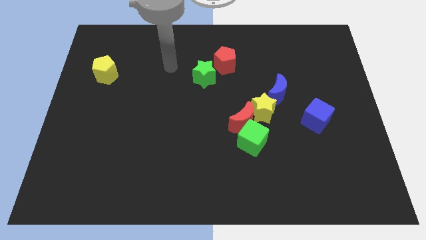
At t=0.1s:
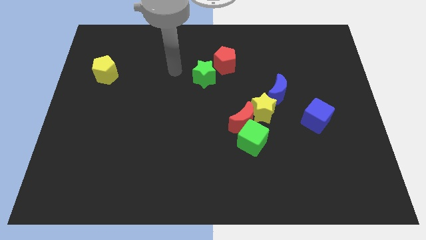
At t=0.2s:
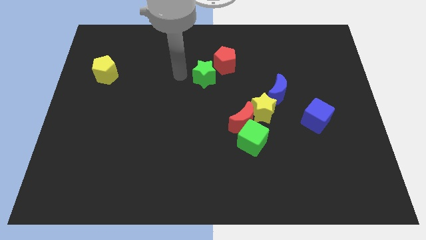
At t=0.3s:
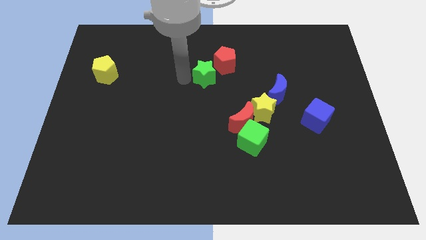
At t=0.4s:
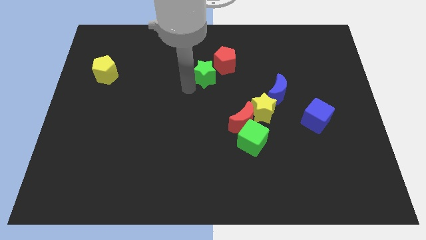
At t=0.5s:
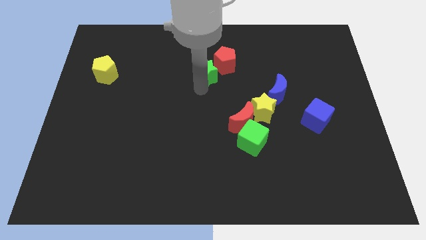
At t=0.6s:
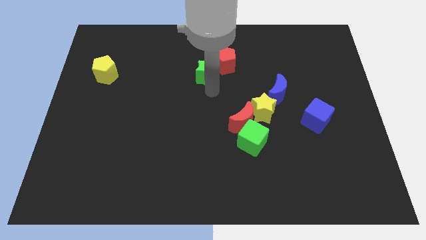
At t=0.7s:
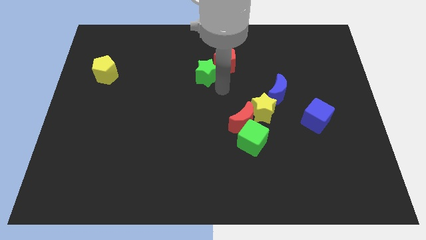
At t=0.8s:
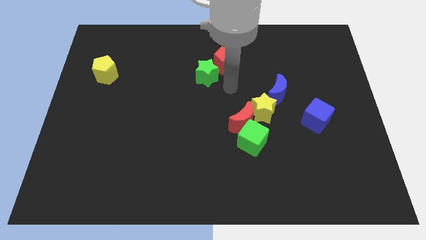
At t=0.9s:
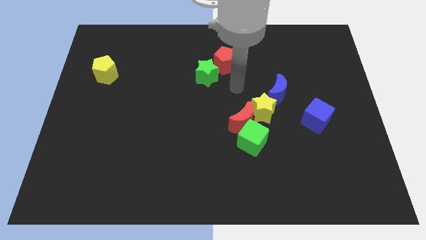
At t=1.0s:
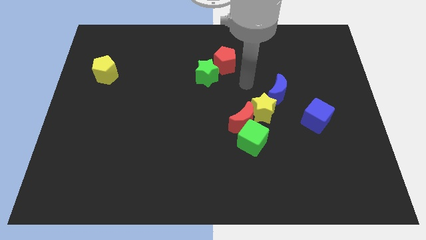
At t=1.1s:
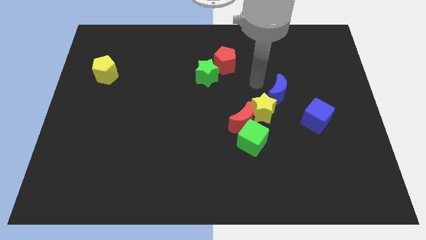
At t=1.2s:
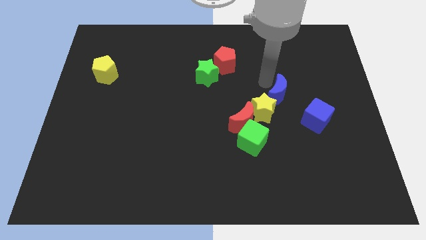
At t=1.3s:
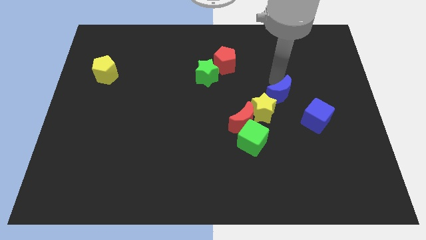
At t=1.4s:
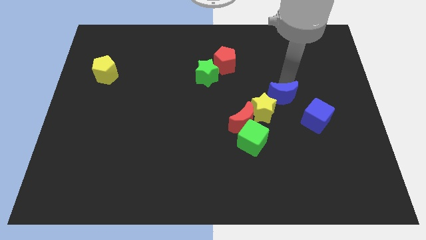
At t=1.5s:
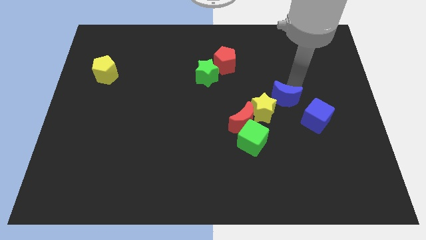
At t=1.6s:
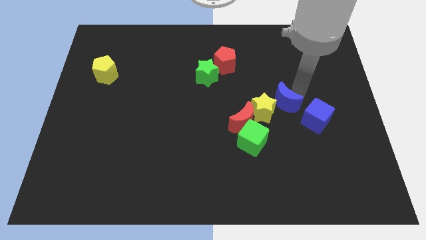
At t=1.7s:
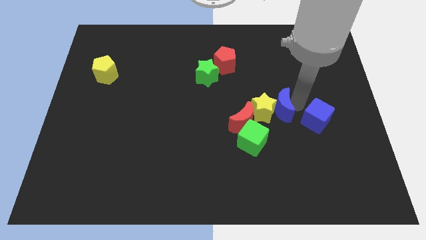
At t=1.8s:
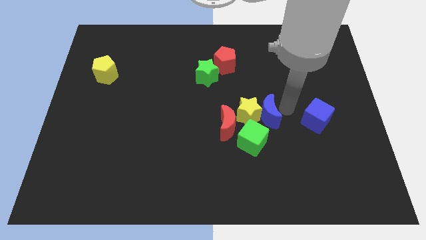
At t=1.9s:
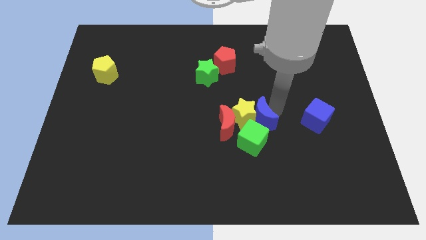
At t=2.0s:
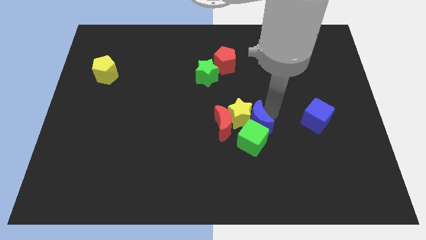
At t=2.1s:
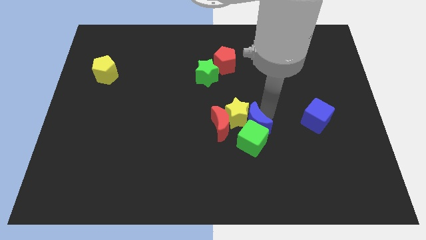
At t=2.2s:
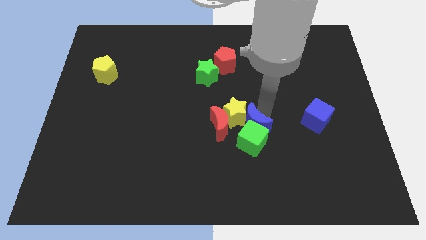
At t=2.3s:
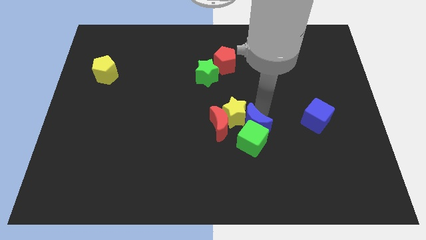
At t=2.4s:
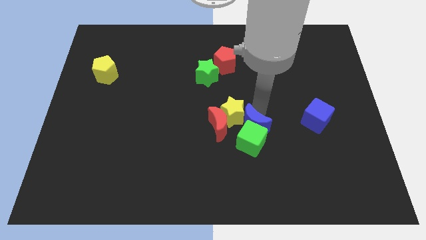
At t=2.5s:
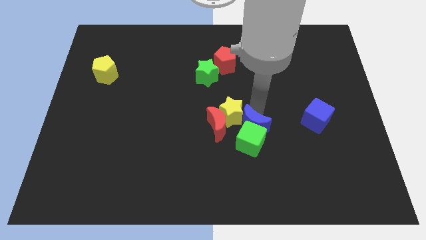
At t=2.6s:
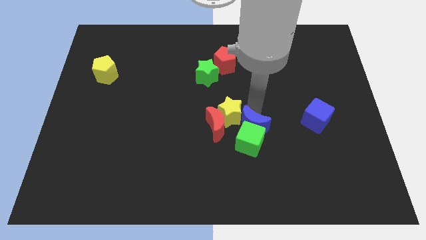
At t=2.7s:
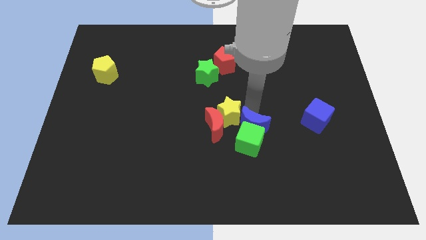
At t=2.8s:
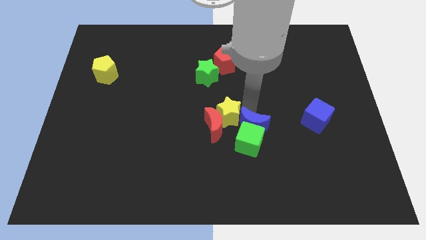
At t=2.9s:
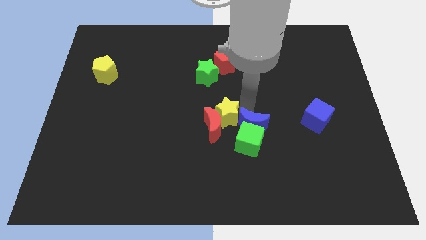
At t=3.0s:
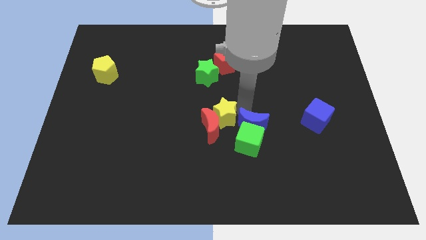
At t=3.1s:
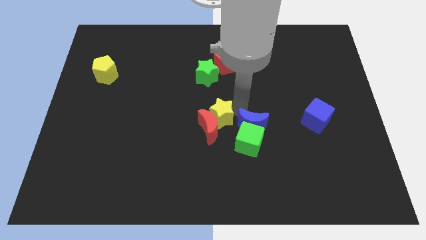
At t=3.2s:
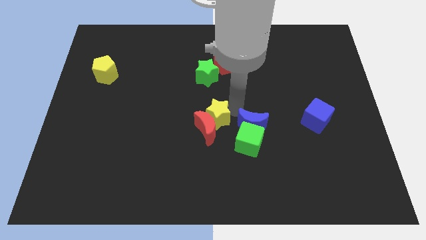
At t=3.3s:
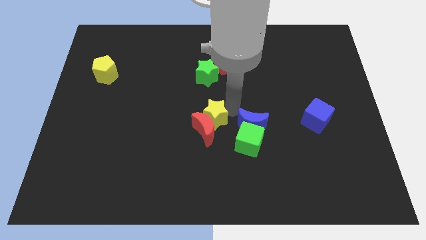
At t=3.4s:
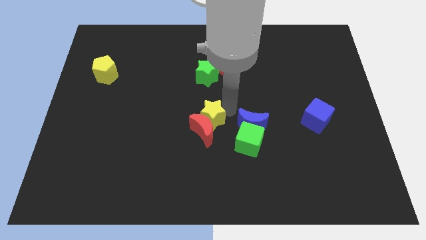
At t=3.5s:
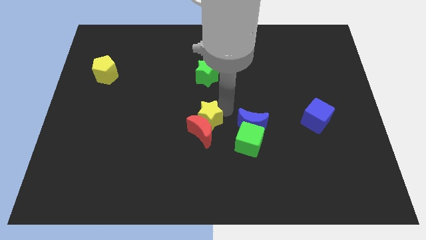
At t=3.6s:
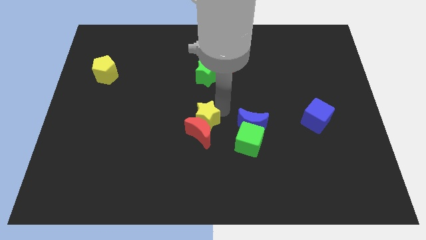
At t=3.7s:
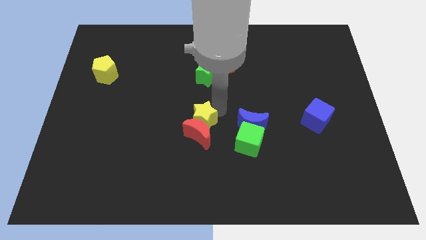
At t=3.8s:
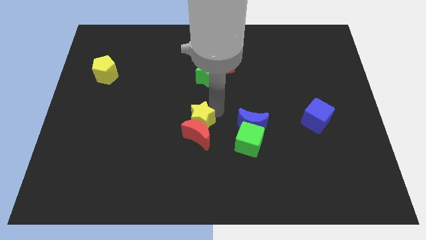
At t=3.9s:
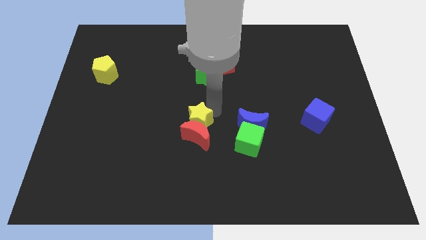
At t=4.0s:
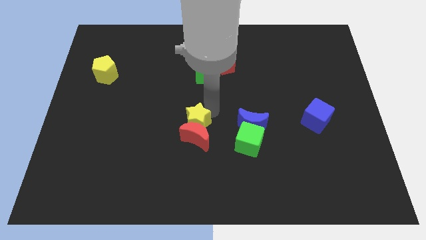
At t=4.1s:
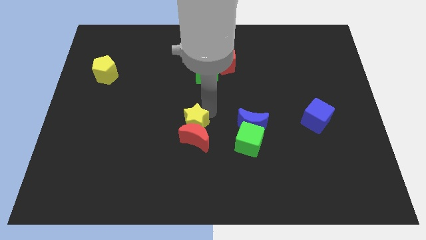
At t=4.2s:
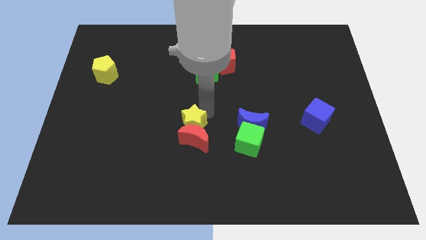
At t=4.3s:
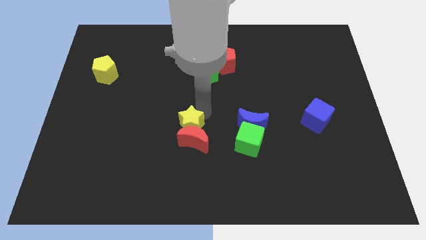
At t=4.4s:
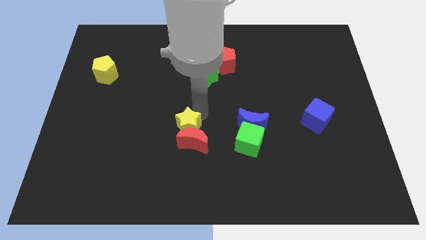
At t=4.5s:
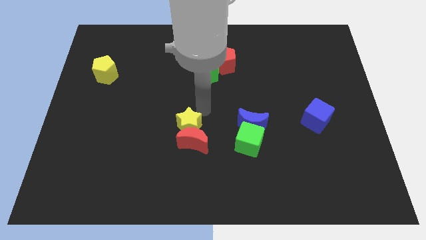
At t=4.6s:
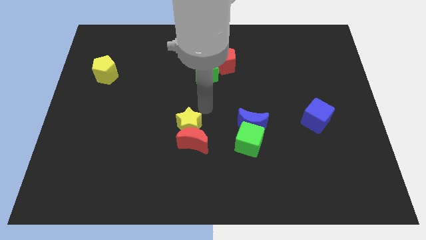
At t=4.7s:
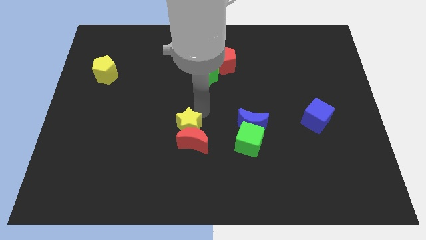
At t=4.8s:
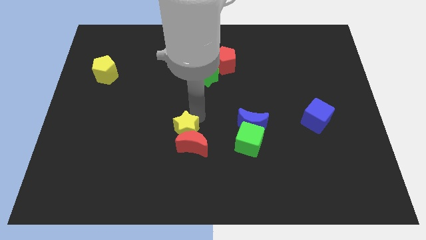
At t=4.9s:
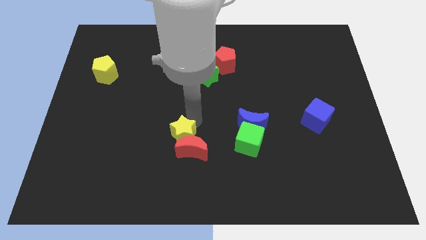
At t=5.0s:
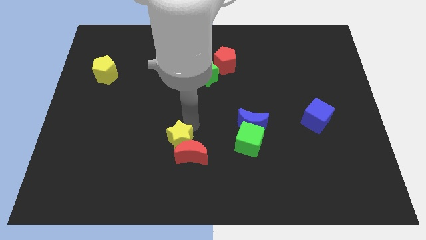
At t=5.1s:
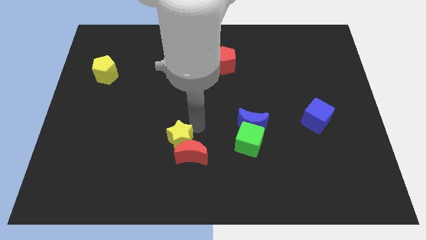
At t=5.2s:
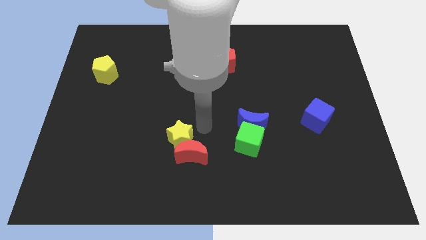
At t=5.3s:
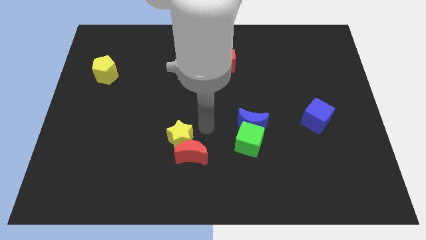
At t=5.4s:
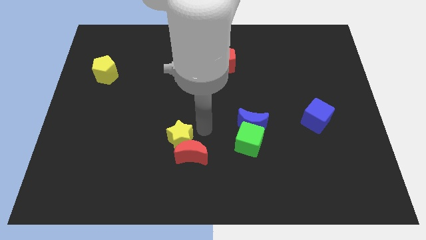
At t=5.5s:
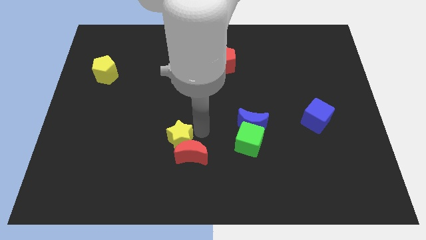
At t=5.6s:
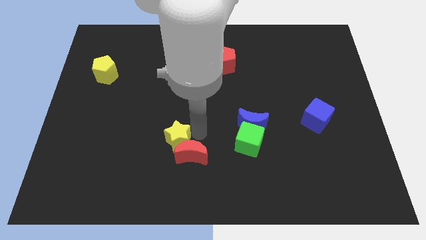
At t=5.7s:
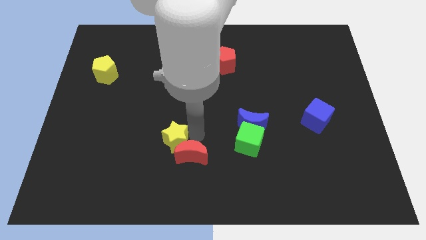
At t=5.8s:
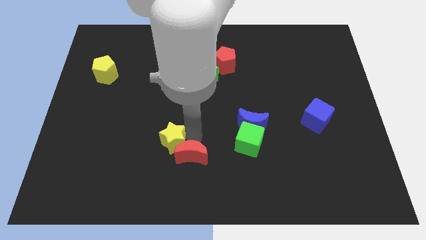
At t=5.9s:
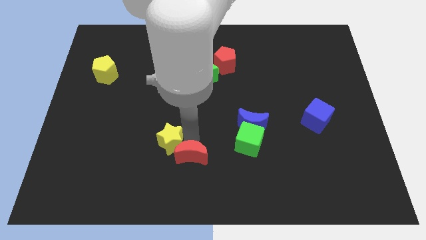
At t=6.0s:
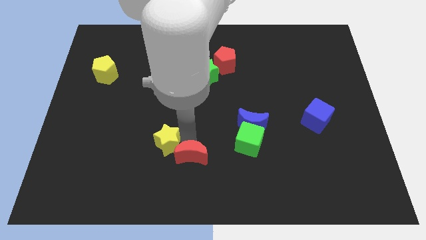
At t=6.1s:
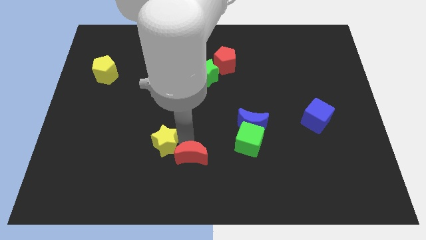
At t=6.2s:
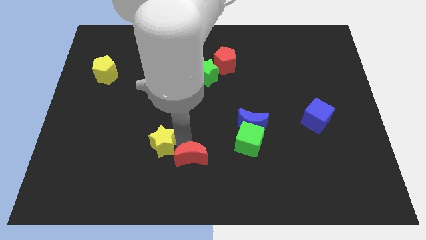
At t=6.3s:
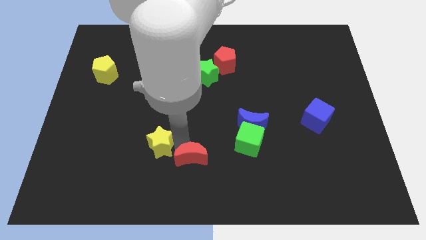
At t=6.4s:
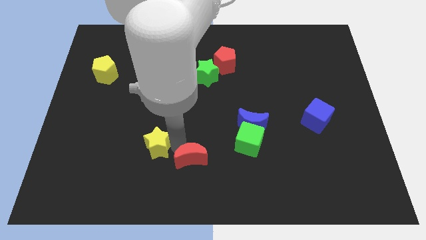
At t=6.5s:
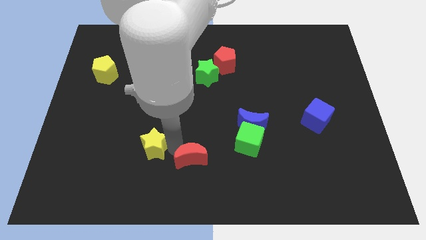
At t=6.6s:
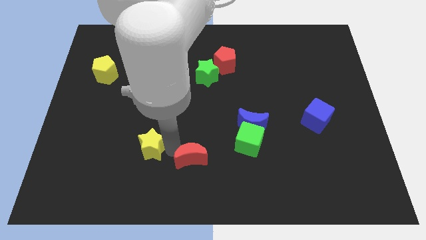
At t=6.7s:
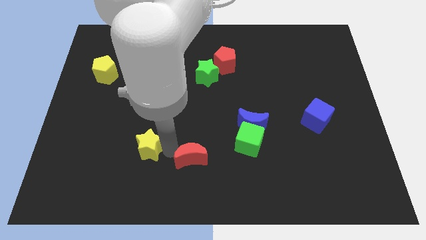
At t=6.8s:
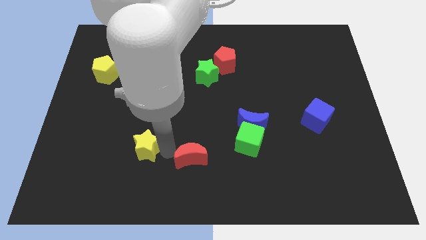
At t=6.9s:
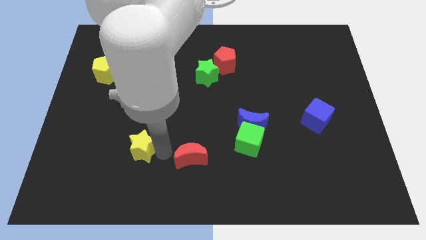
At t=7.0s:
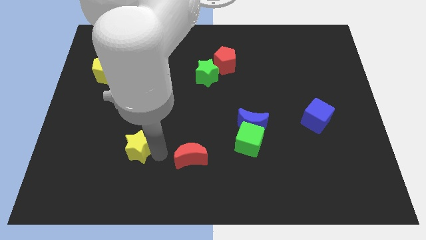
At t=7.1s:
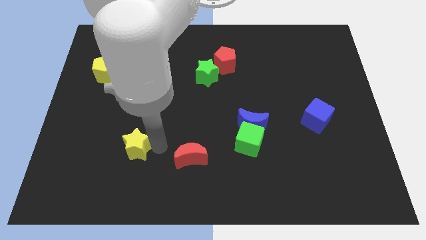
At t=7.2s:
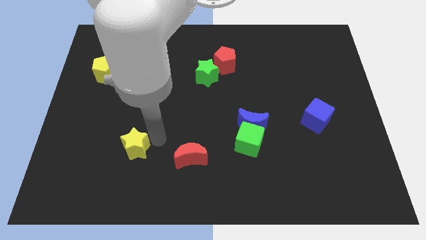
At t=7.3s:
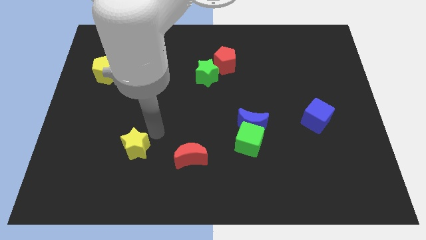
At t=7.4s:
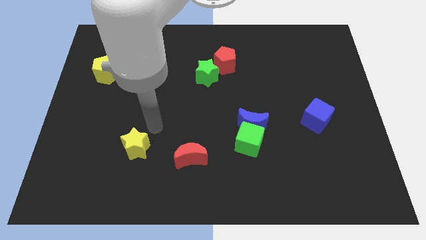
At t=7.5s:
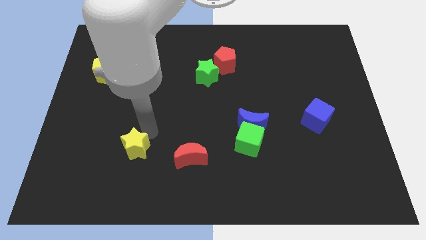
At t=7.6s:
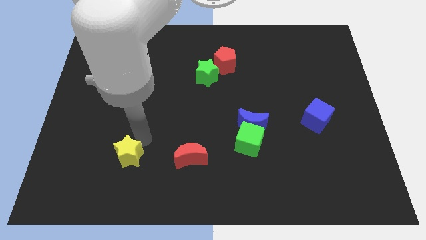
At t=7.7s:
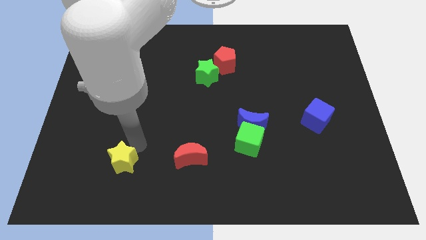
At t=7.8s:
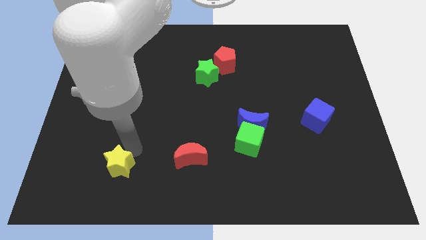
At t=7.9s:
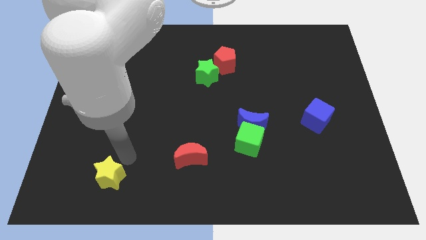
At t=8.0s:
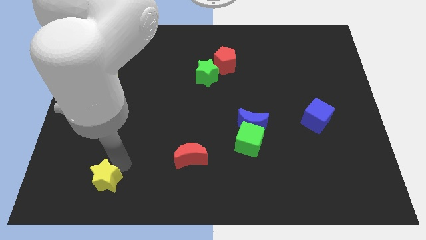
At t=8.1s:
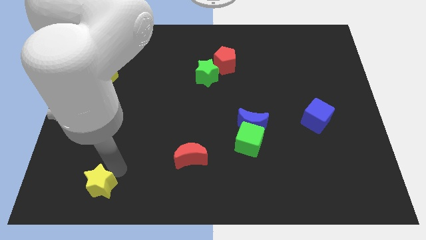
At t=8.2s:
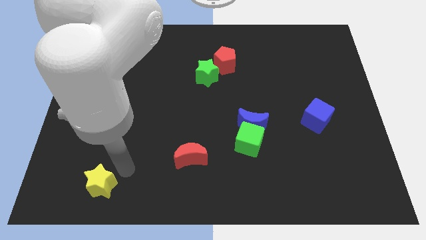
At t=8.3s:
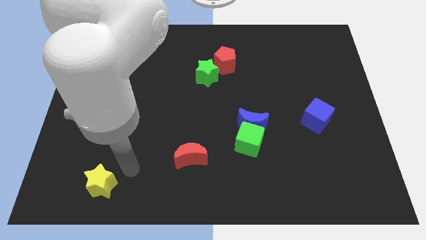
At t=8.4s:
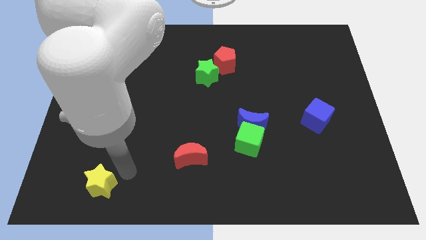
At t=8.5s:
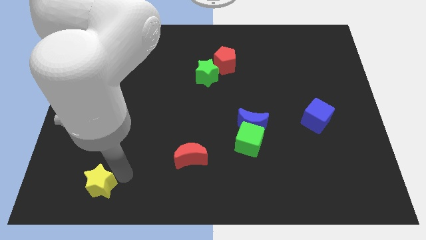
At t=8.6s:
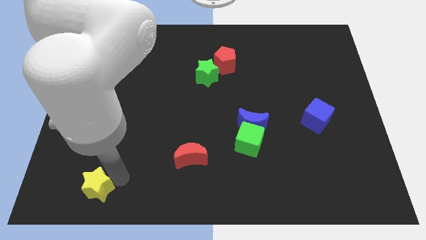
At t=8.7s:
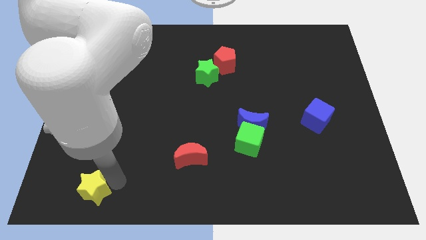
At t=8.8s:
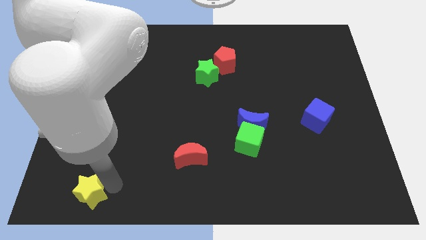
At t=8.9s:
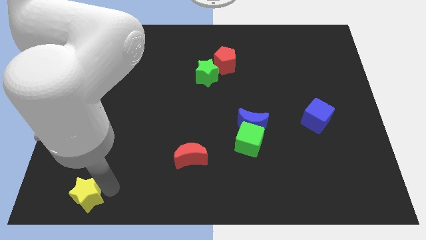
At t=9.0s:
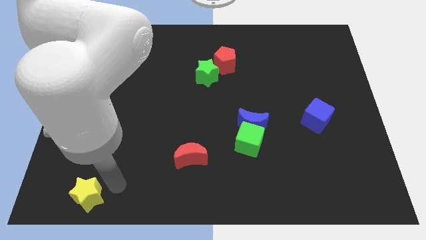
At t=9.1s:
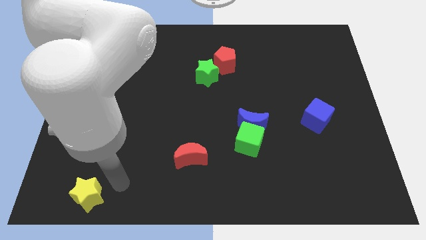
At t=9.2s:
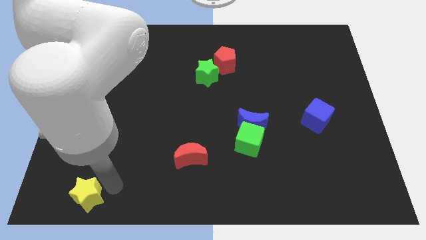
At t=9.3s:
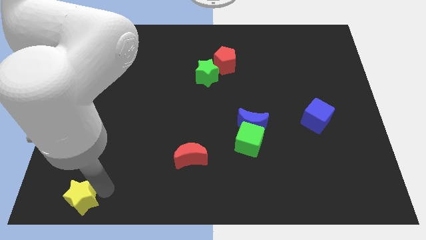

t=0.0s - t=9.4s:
slide the yellow star to the lower left corner
